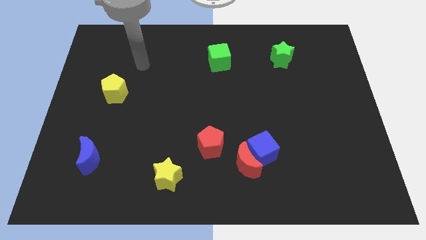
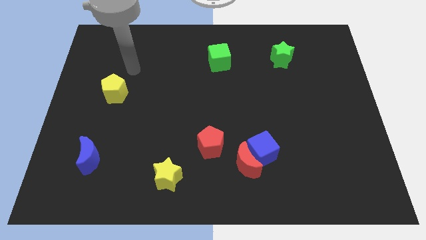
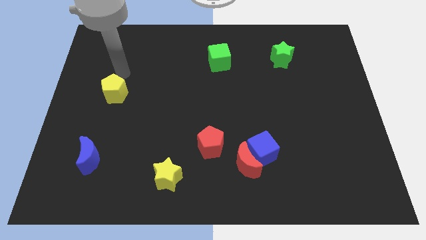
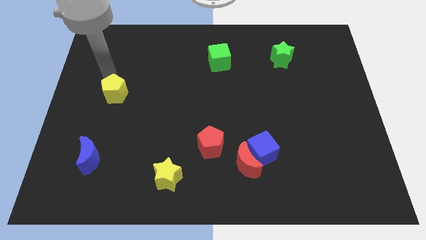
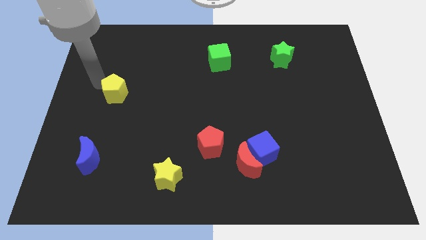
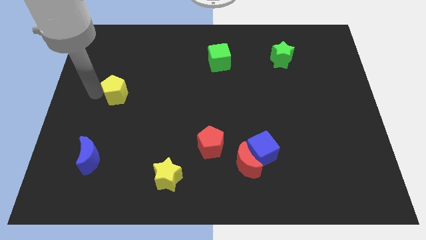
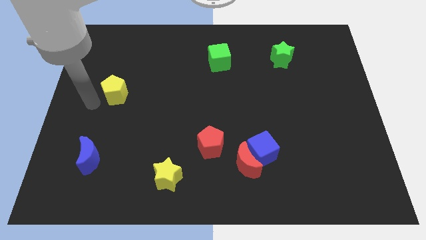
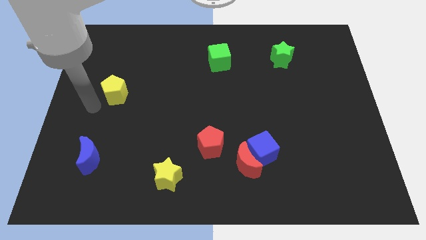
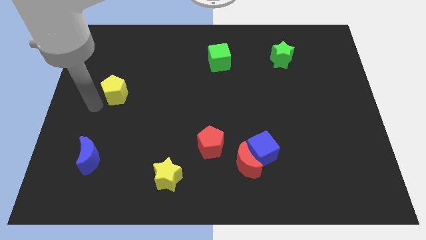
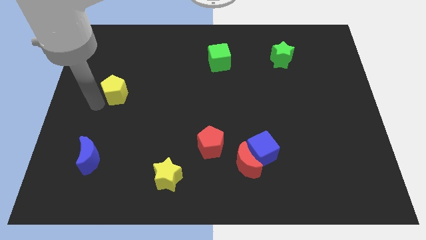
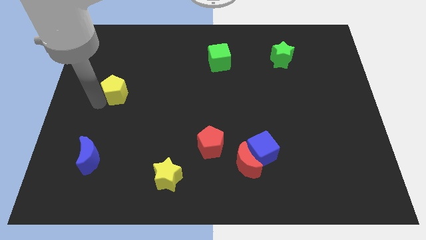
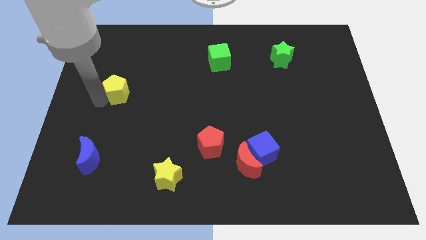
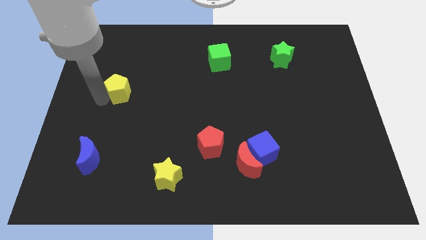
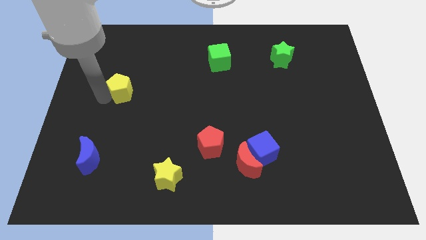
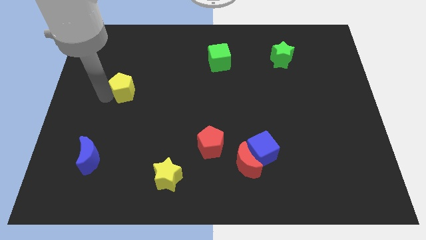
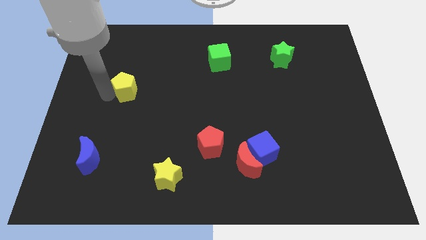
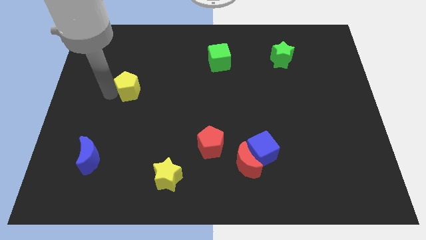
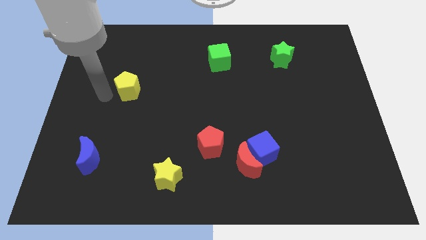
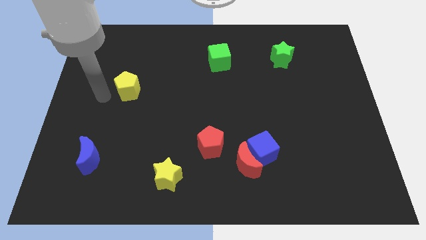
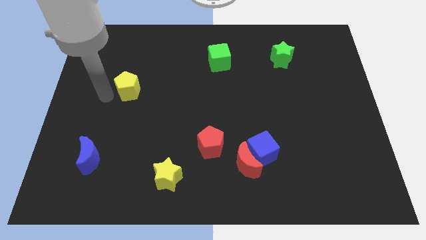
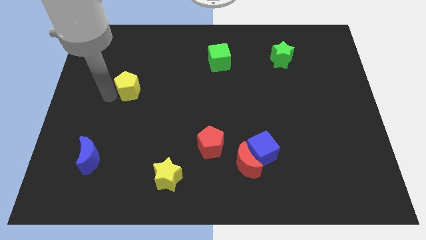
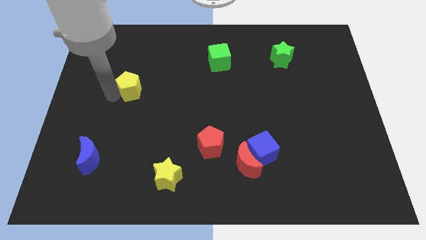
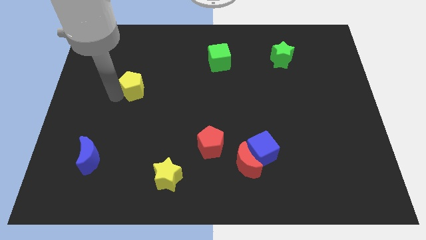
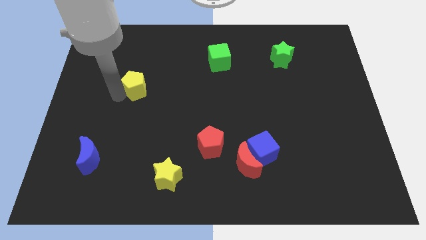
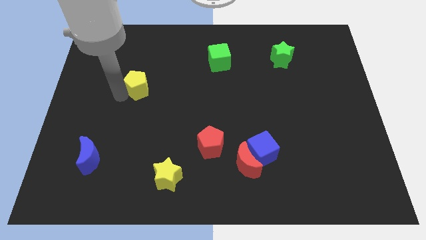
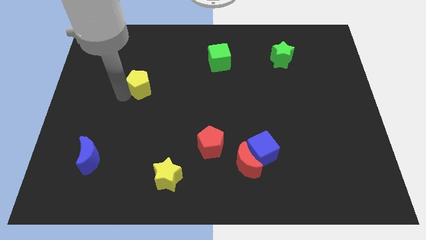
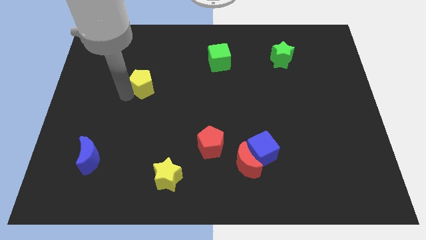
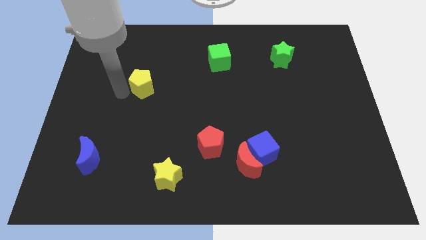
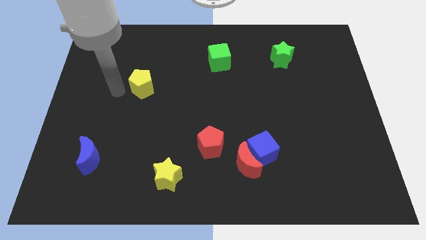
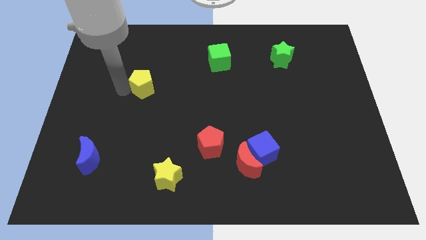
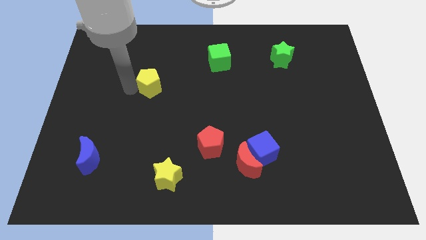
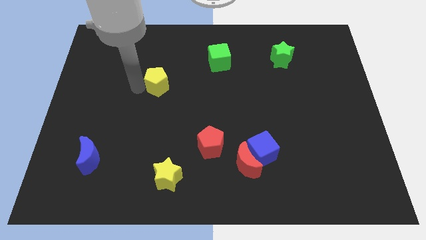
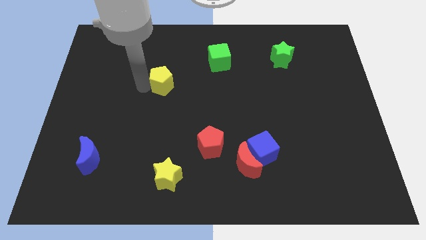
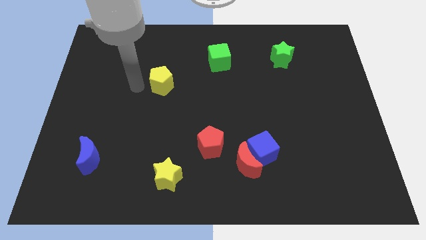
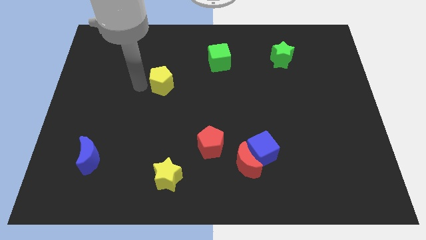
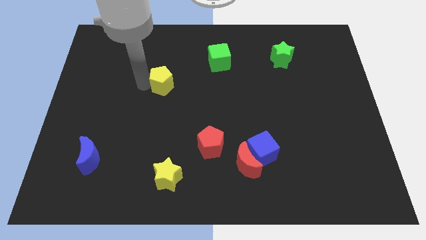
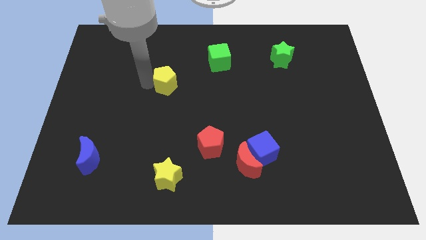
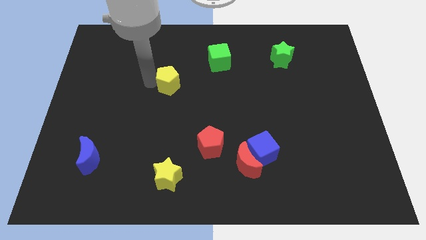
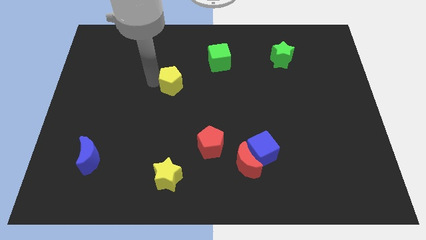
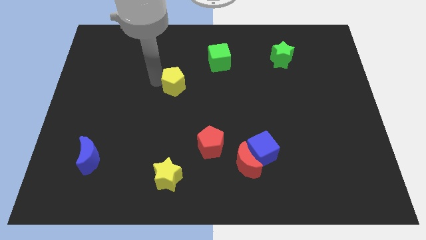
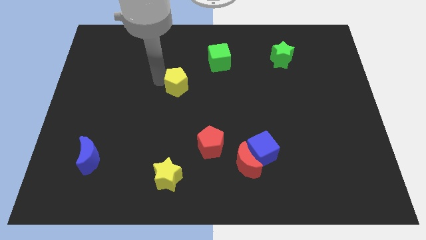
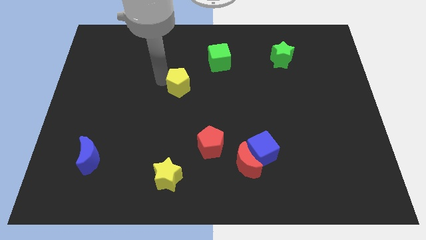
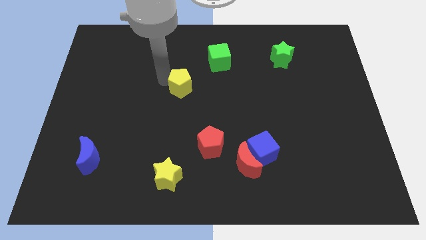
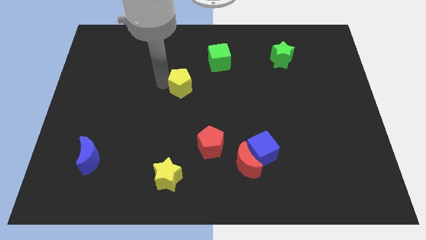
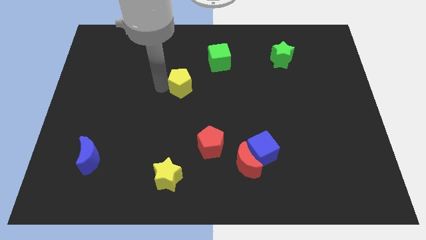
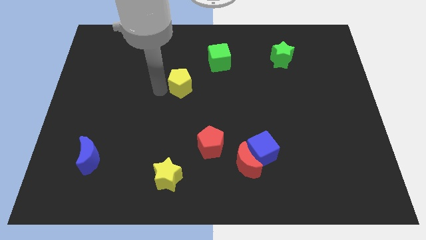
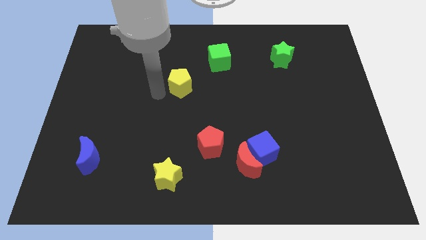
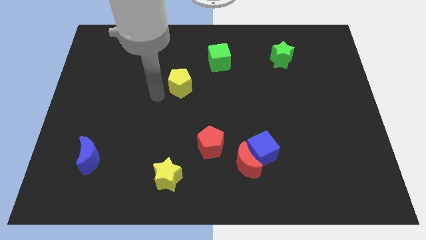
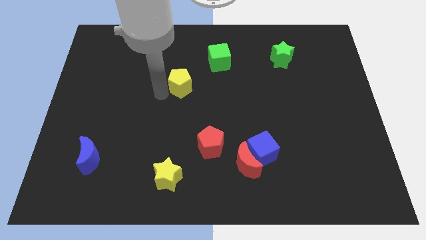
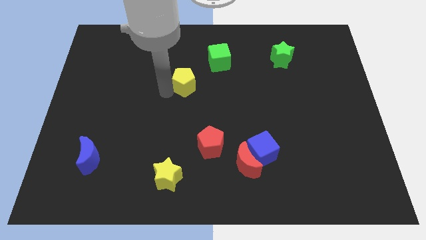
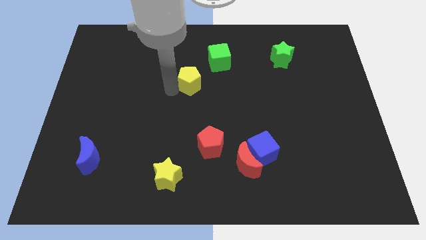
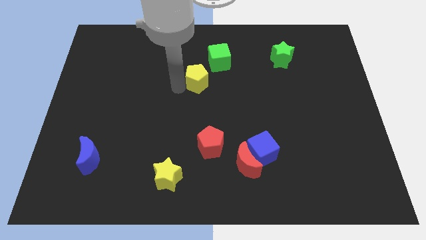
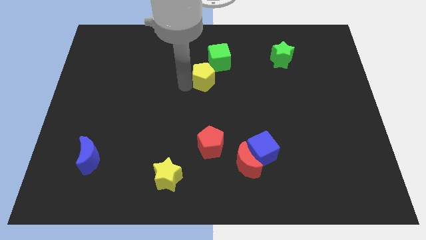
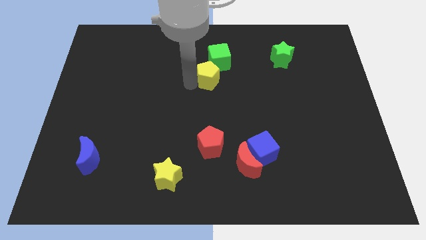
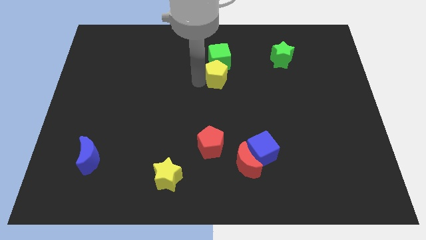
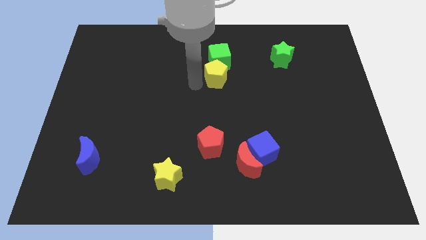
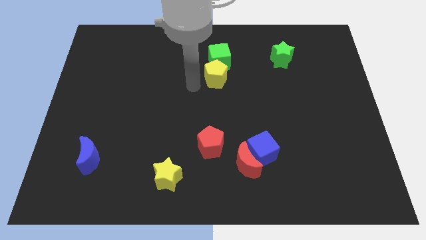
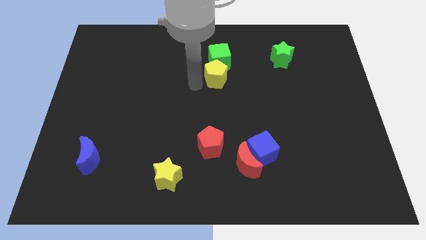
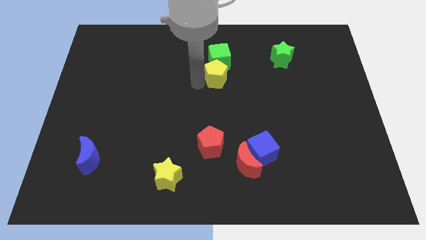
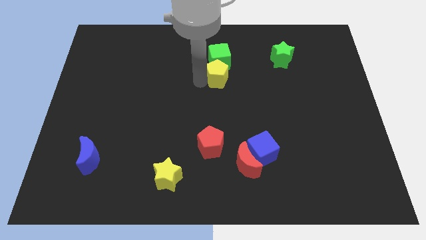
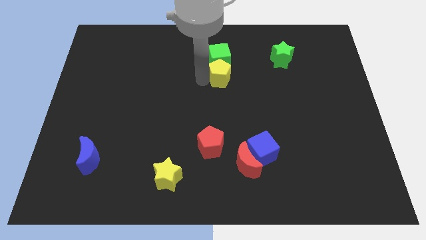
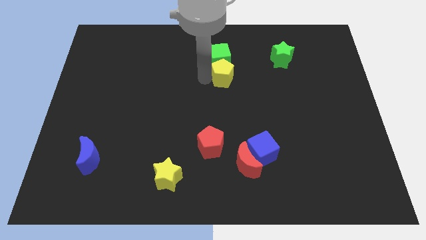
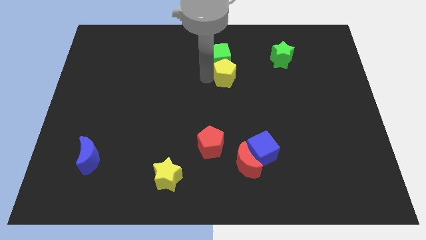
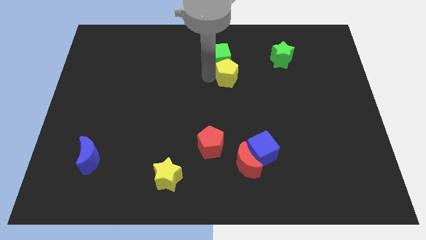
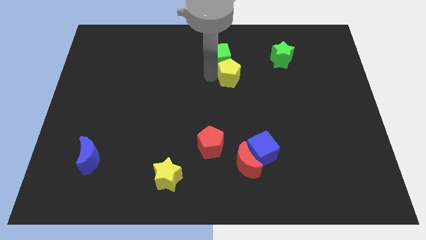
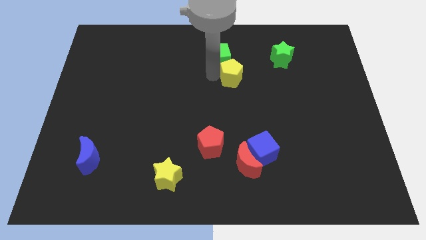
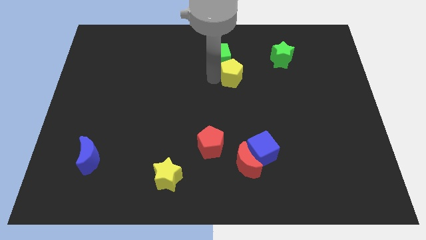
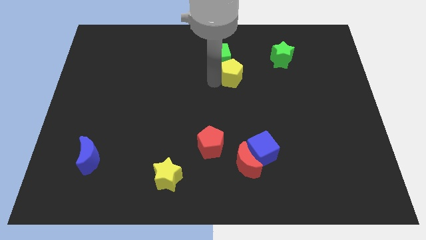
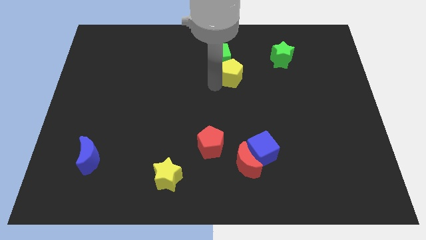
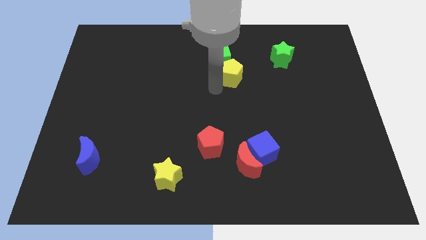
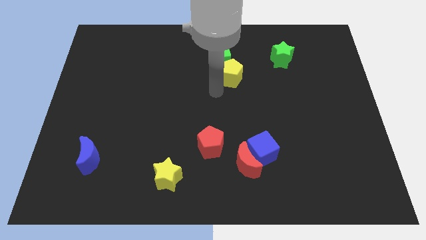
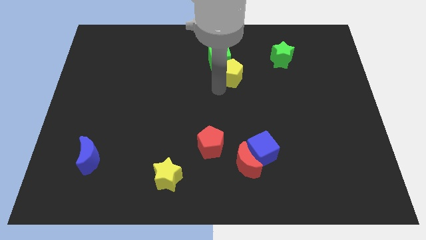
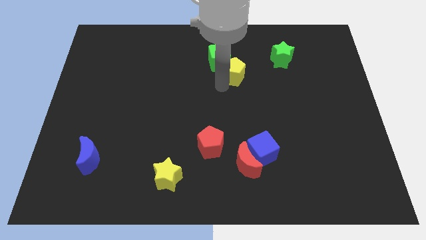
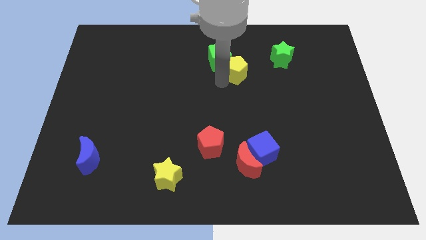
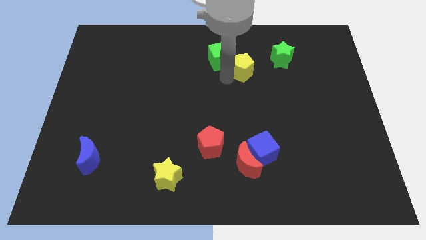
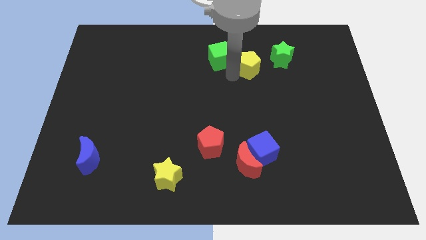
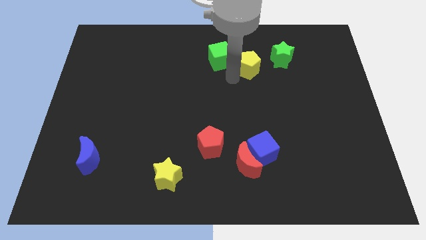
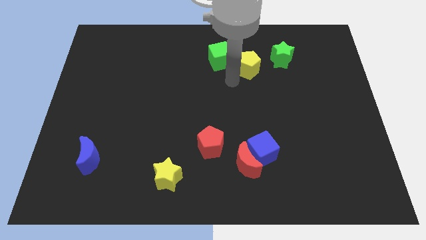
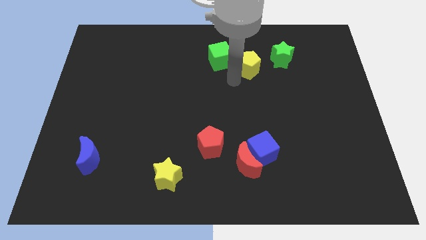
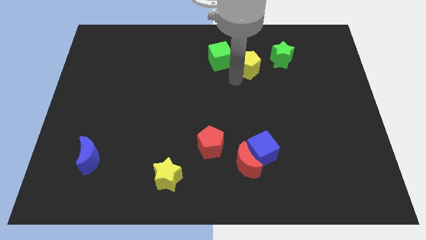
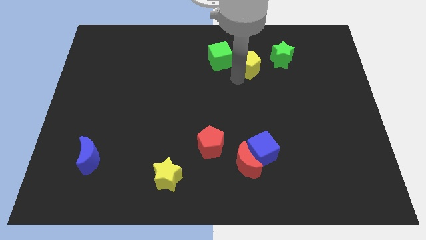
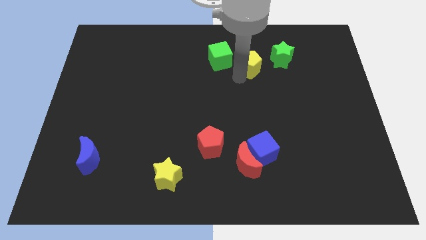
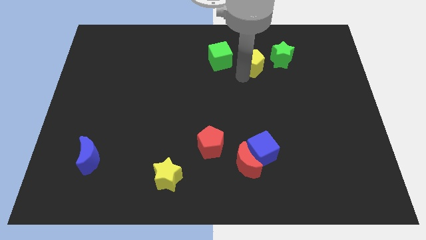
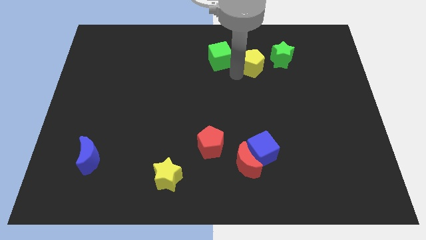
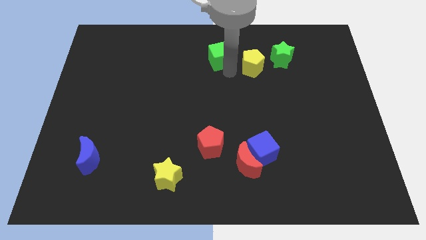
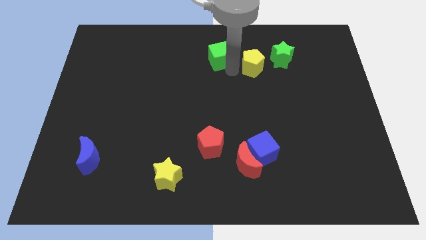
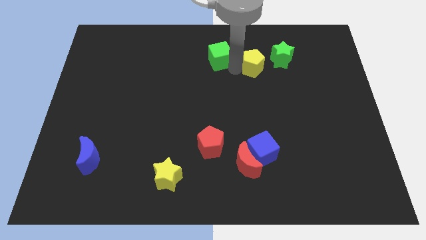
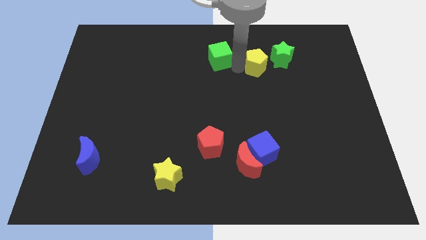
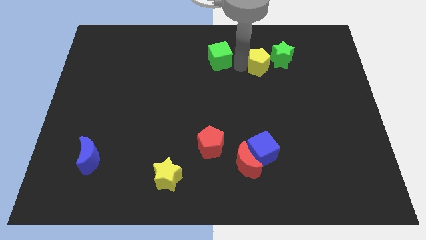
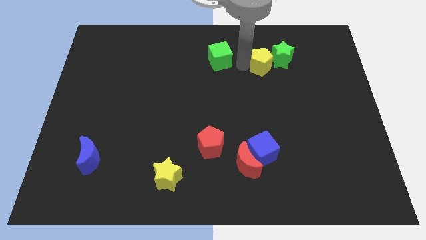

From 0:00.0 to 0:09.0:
move the yellow pentagon towards the green star
